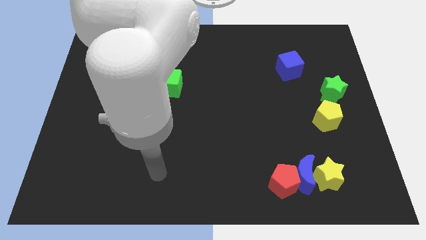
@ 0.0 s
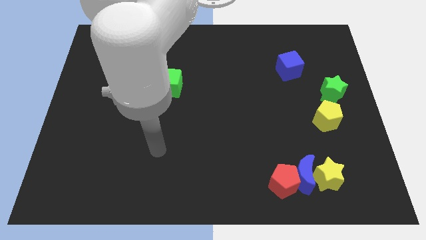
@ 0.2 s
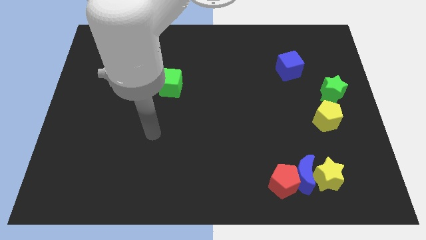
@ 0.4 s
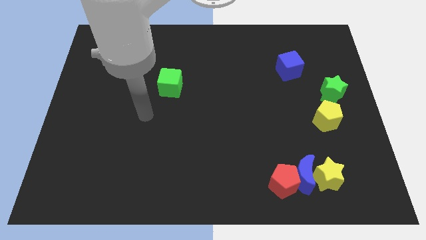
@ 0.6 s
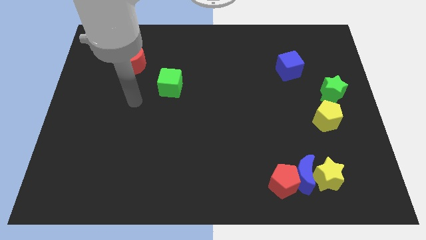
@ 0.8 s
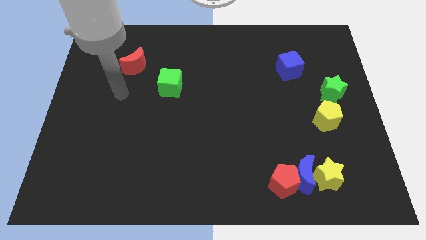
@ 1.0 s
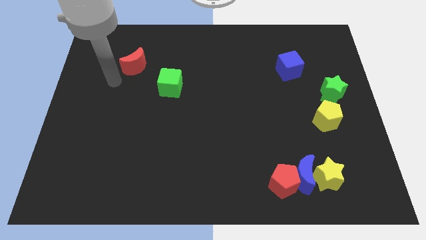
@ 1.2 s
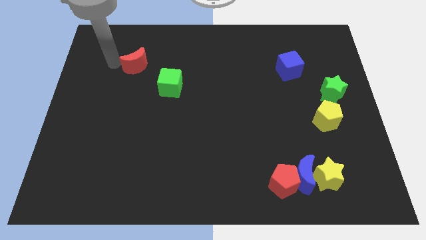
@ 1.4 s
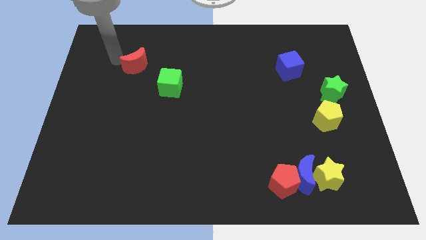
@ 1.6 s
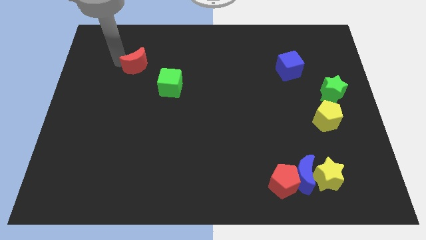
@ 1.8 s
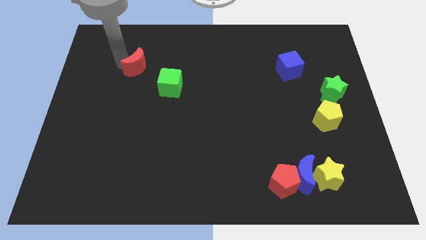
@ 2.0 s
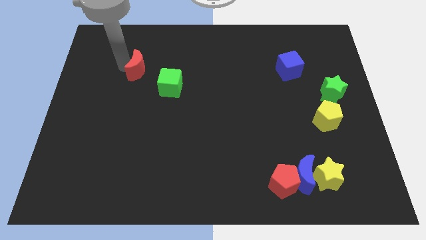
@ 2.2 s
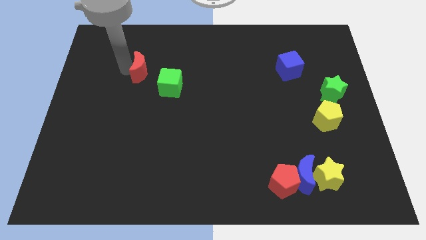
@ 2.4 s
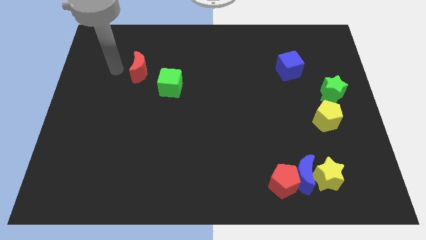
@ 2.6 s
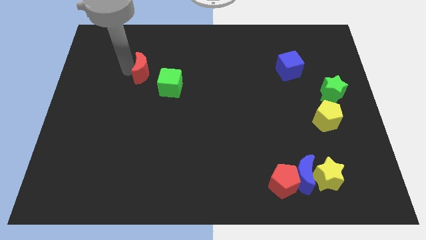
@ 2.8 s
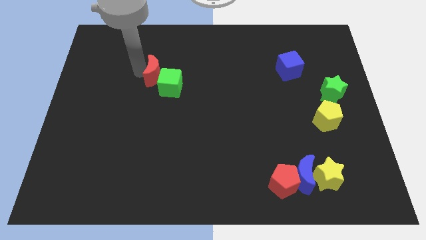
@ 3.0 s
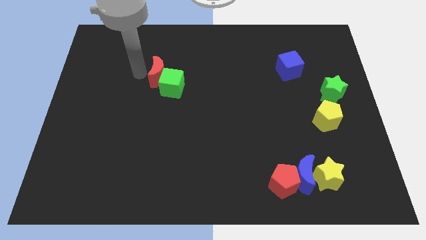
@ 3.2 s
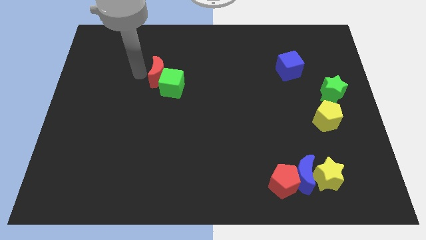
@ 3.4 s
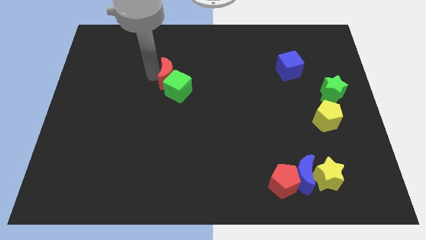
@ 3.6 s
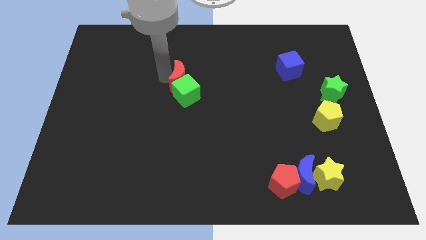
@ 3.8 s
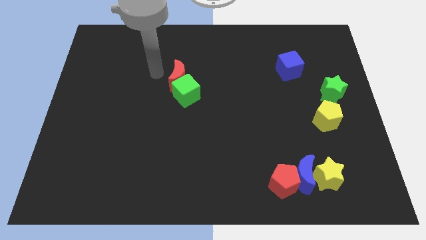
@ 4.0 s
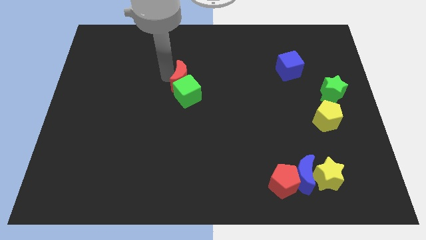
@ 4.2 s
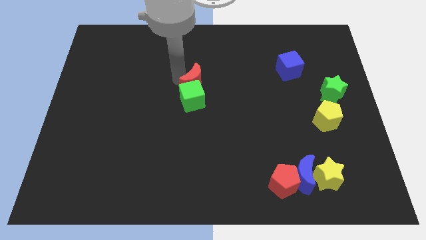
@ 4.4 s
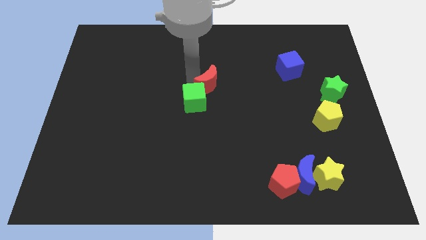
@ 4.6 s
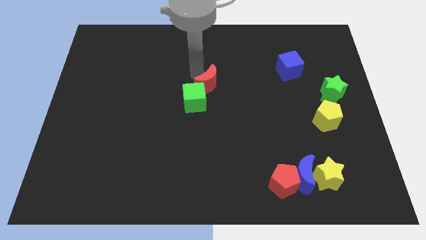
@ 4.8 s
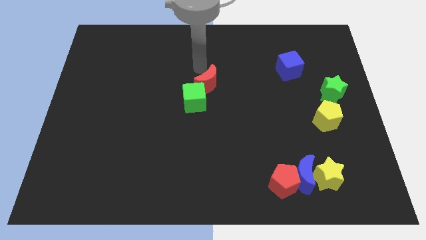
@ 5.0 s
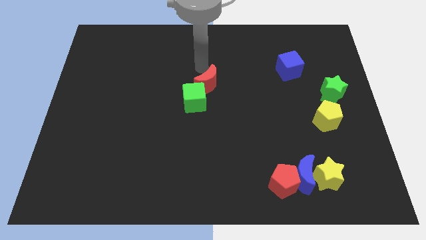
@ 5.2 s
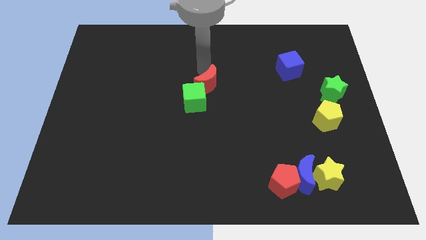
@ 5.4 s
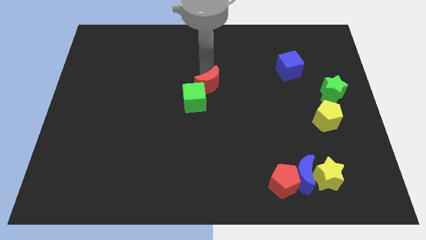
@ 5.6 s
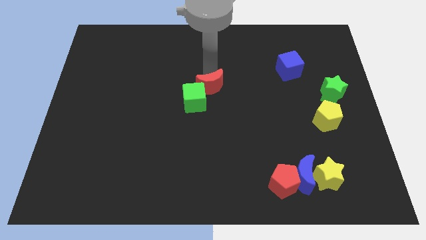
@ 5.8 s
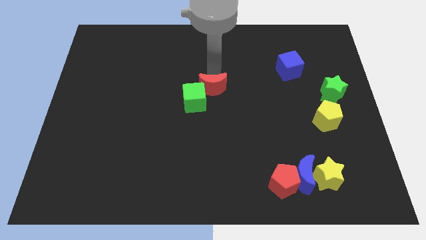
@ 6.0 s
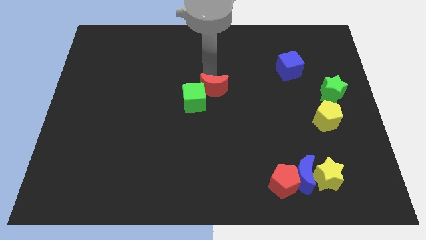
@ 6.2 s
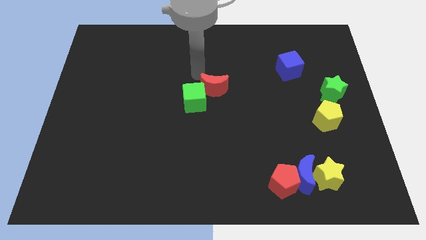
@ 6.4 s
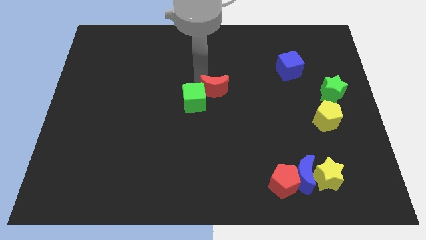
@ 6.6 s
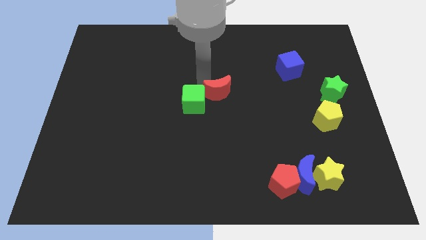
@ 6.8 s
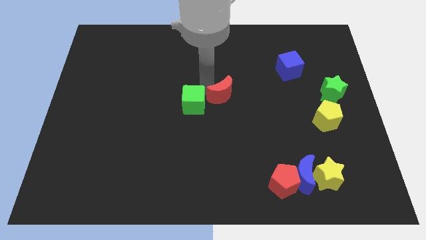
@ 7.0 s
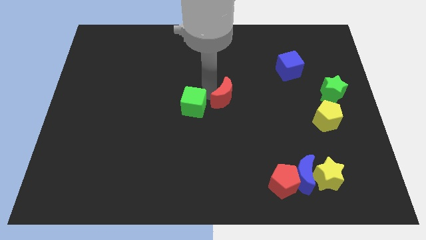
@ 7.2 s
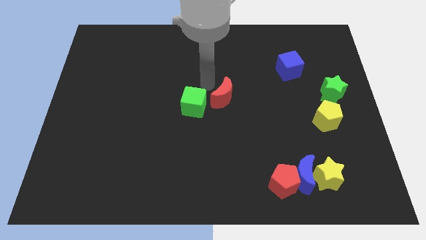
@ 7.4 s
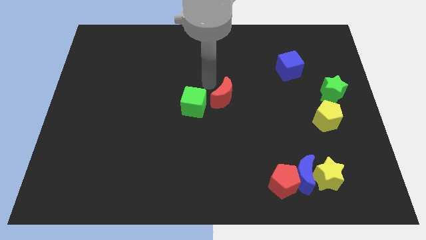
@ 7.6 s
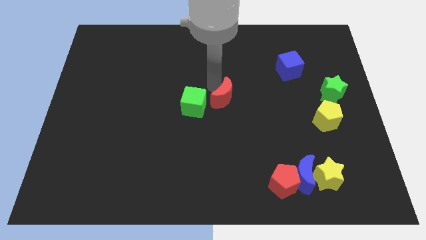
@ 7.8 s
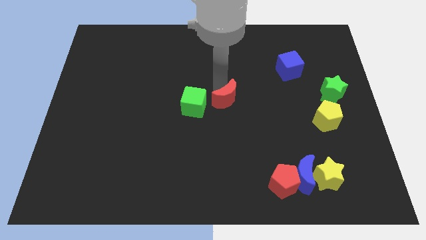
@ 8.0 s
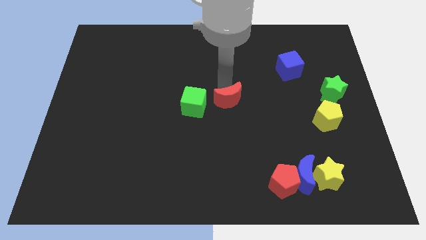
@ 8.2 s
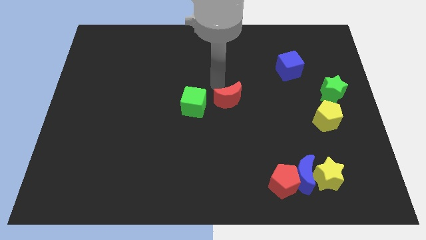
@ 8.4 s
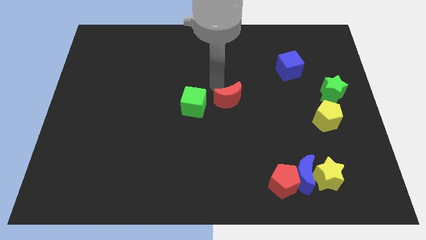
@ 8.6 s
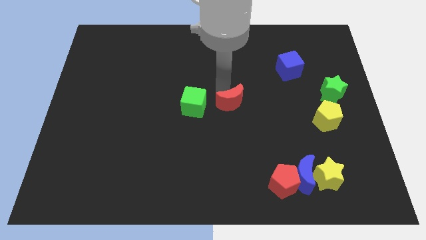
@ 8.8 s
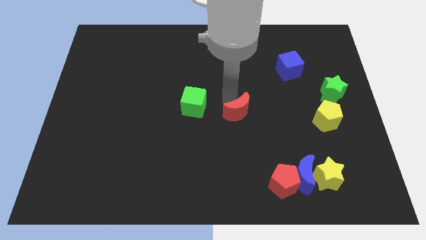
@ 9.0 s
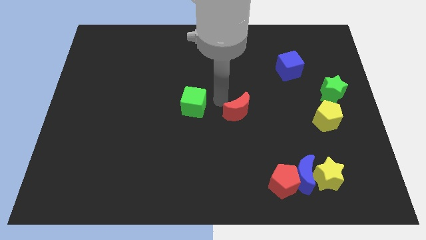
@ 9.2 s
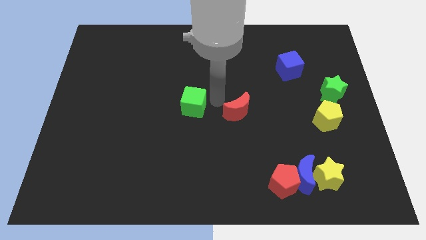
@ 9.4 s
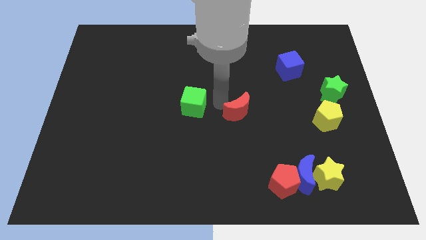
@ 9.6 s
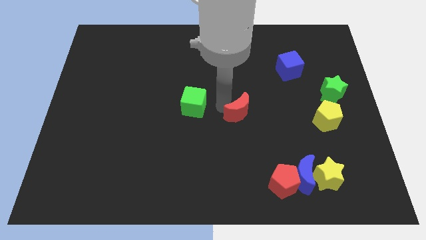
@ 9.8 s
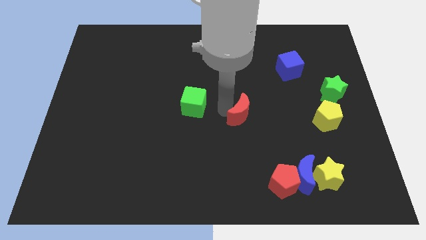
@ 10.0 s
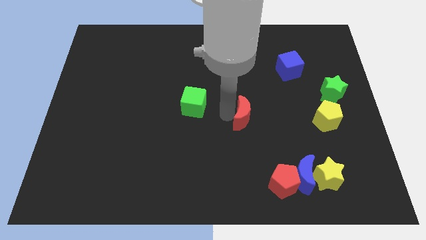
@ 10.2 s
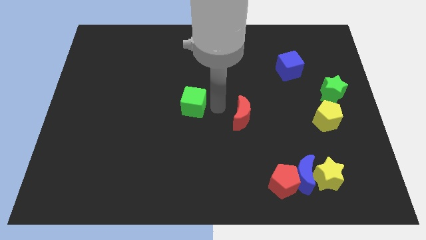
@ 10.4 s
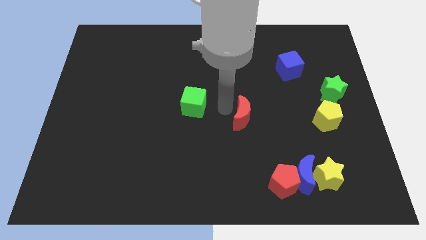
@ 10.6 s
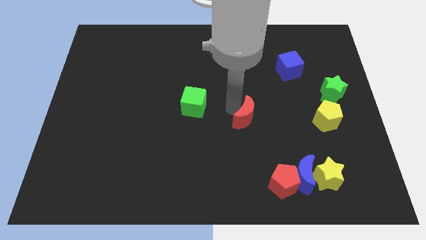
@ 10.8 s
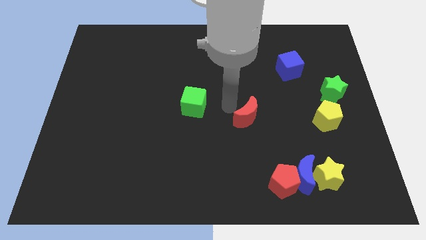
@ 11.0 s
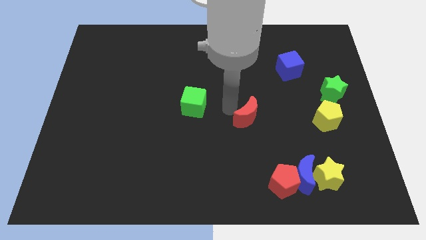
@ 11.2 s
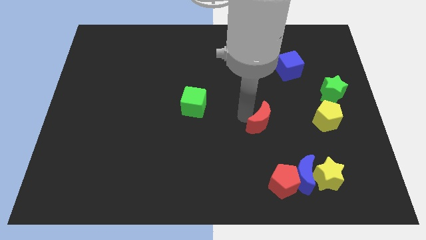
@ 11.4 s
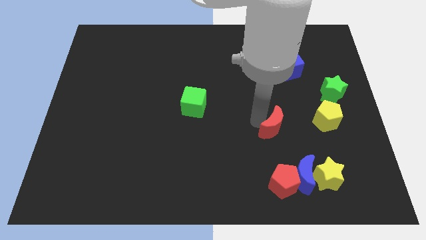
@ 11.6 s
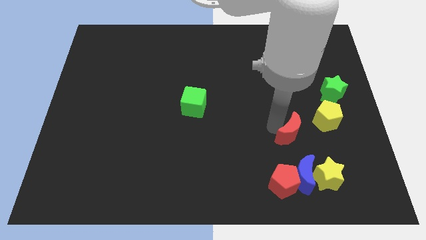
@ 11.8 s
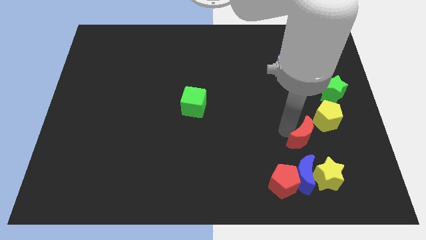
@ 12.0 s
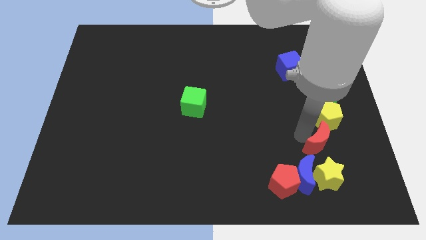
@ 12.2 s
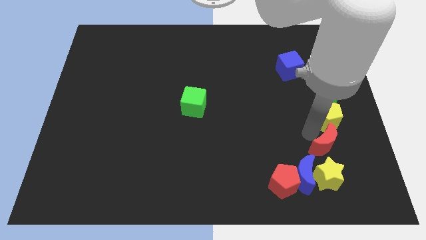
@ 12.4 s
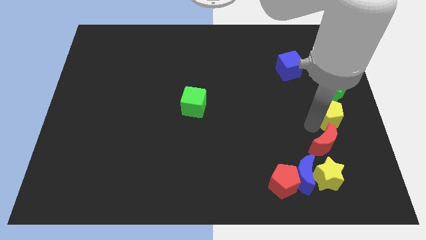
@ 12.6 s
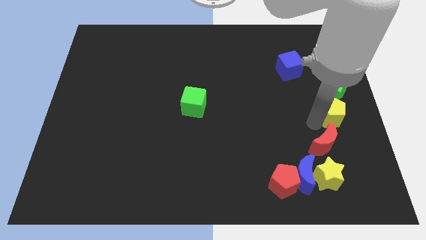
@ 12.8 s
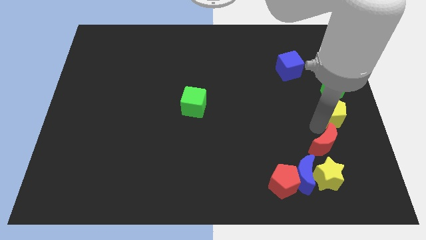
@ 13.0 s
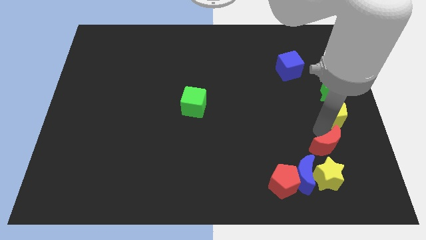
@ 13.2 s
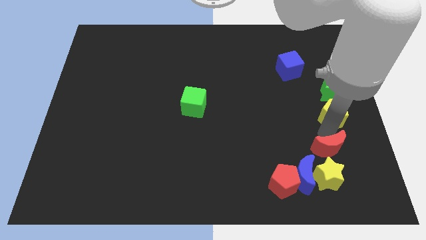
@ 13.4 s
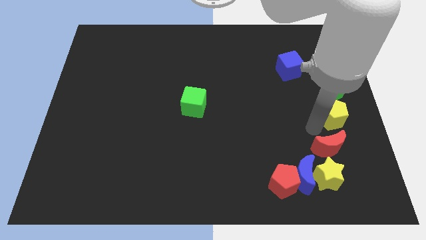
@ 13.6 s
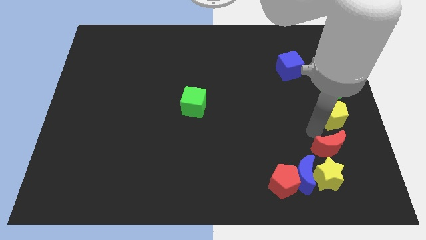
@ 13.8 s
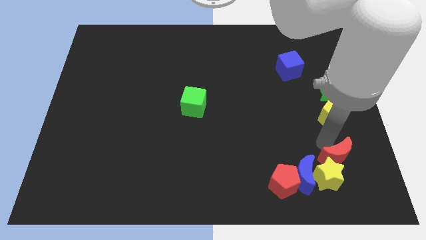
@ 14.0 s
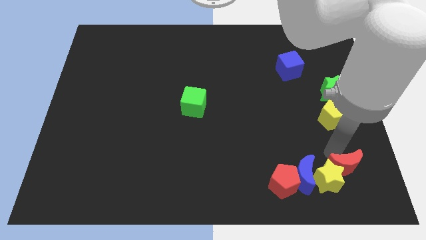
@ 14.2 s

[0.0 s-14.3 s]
push the red moon to the right side of the red pentagon
